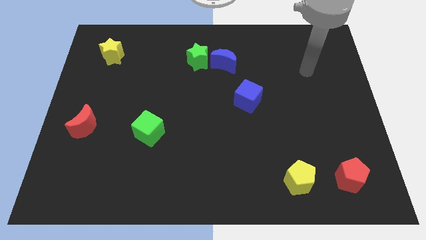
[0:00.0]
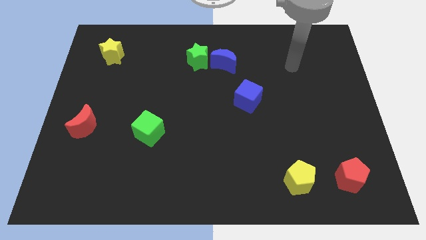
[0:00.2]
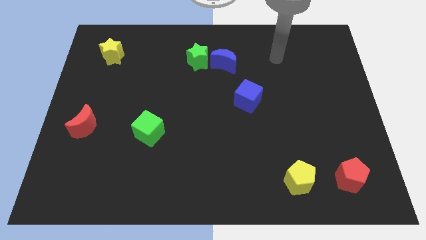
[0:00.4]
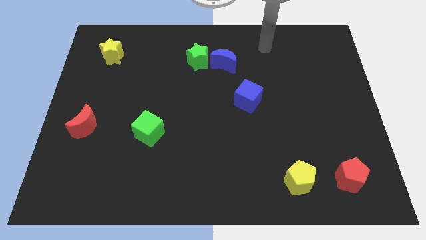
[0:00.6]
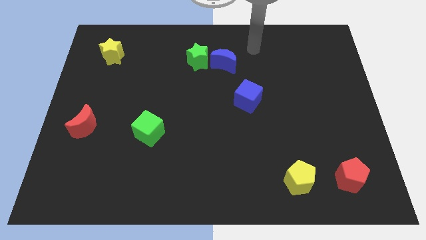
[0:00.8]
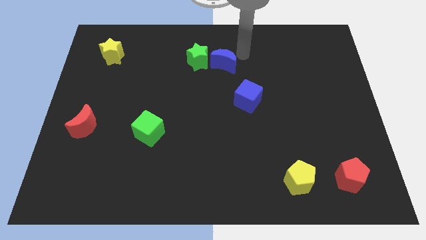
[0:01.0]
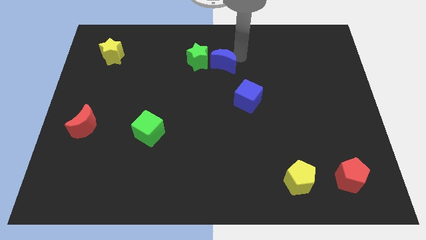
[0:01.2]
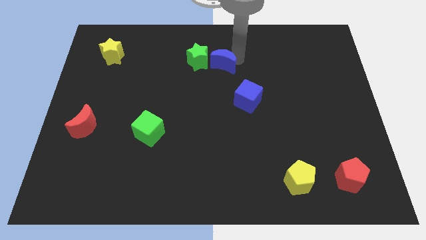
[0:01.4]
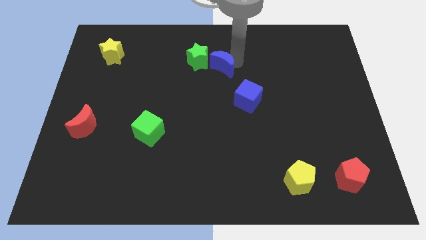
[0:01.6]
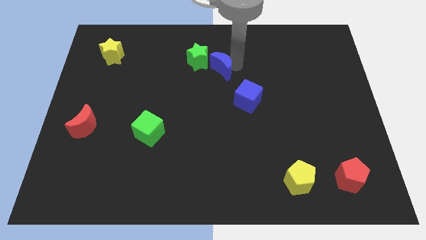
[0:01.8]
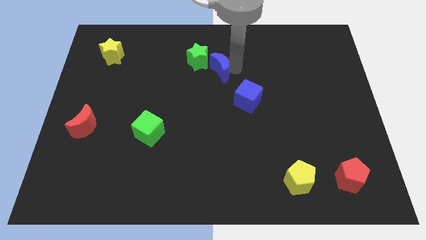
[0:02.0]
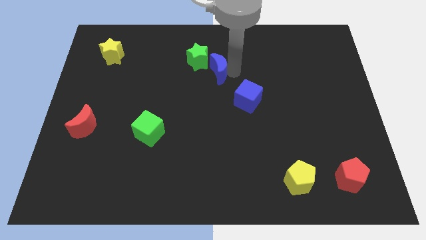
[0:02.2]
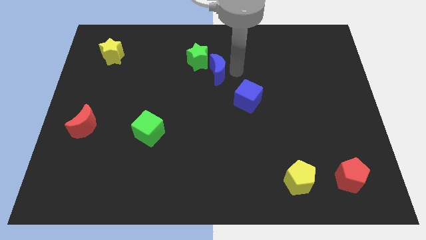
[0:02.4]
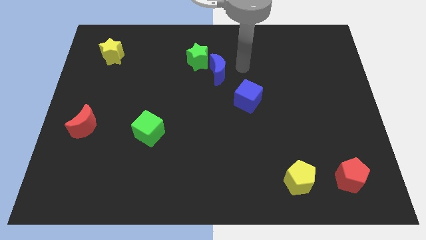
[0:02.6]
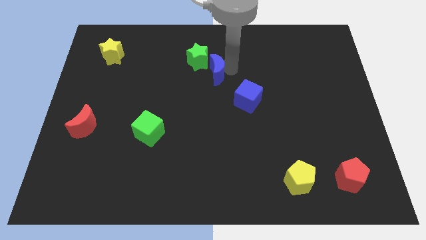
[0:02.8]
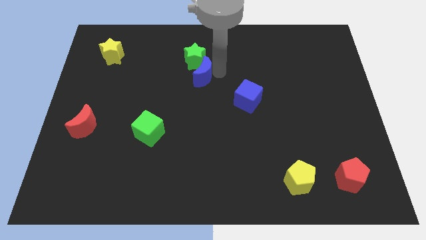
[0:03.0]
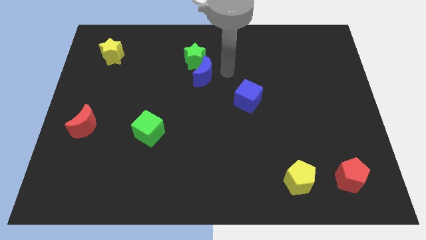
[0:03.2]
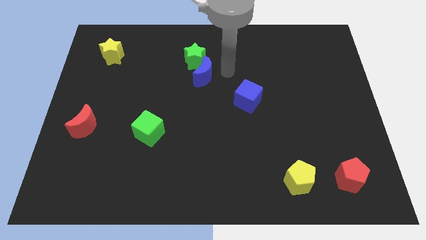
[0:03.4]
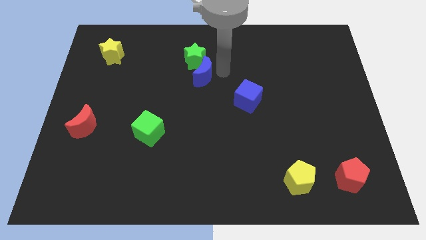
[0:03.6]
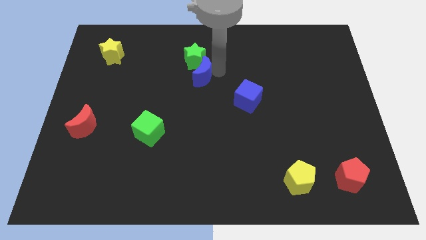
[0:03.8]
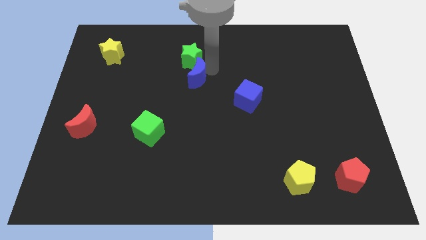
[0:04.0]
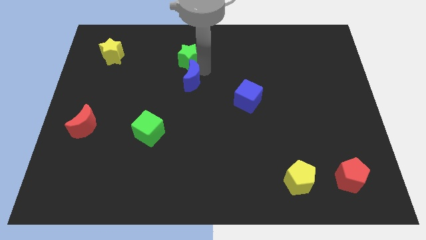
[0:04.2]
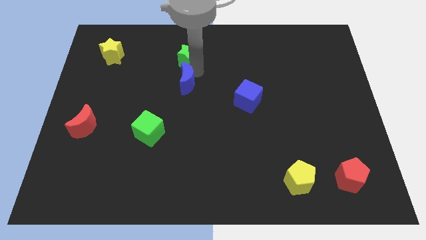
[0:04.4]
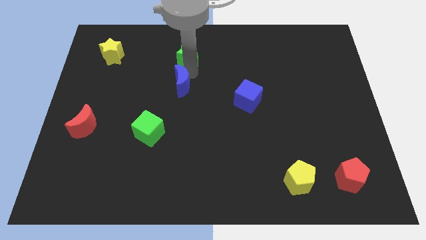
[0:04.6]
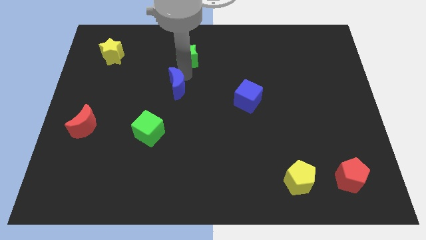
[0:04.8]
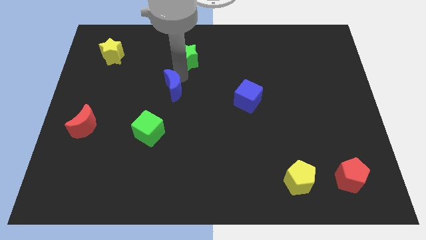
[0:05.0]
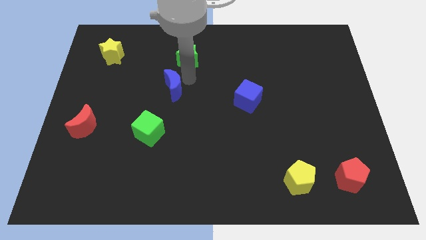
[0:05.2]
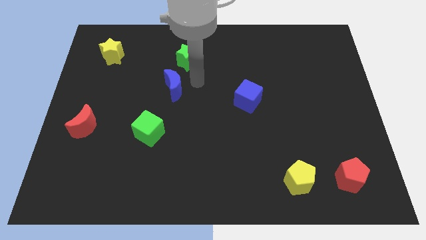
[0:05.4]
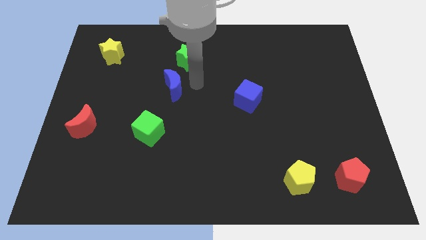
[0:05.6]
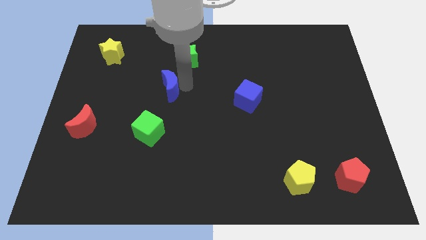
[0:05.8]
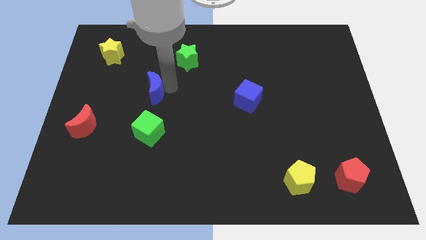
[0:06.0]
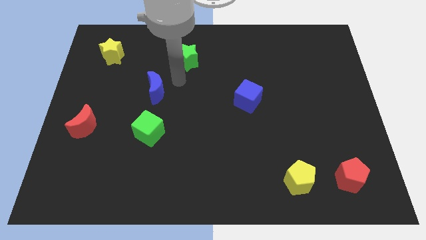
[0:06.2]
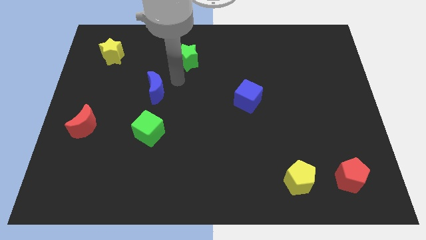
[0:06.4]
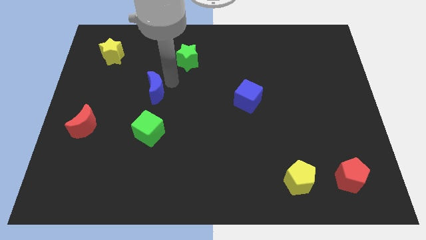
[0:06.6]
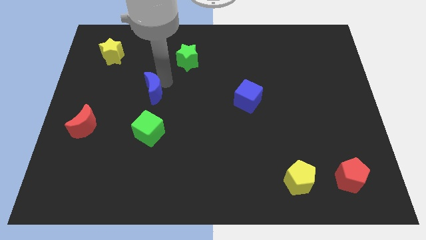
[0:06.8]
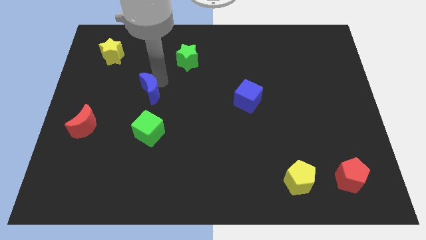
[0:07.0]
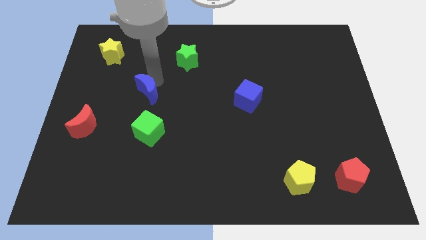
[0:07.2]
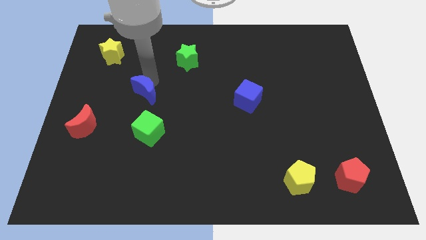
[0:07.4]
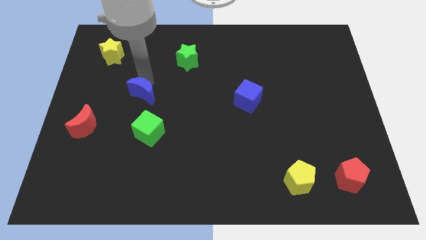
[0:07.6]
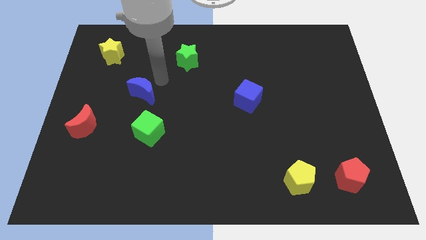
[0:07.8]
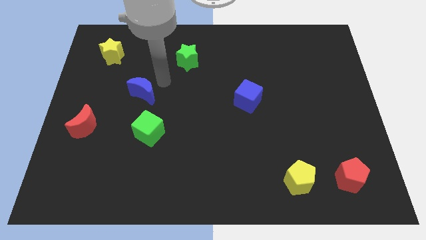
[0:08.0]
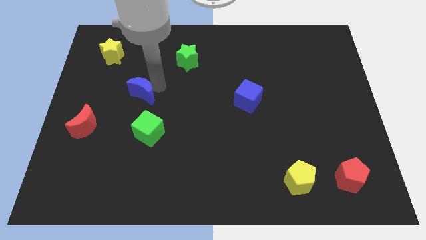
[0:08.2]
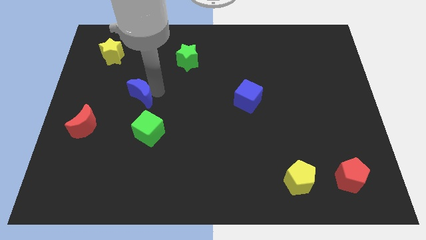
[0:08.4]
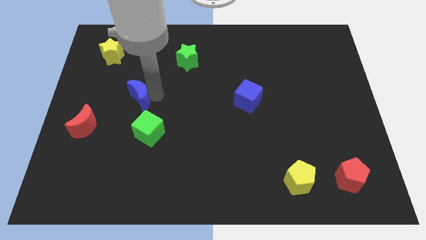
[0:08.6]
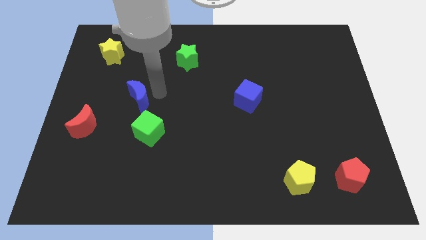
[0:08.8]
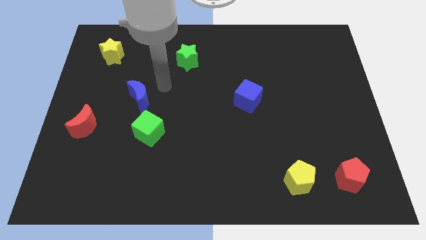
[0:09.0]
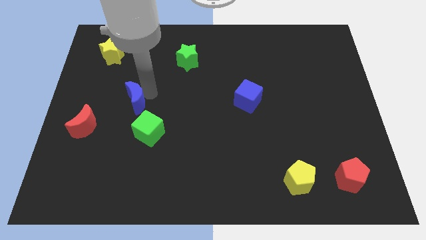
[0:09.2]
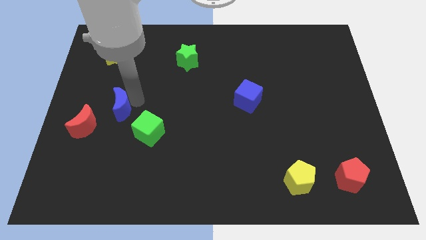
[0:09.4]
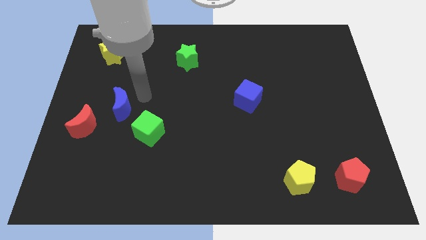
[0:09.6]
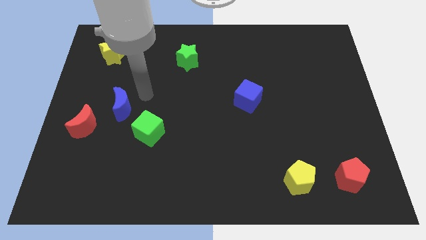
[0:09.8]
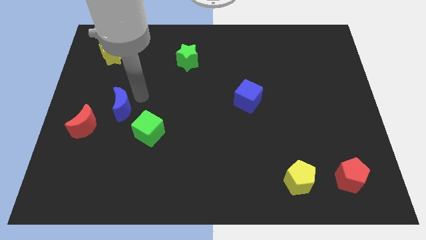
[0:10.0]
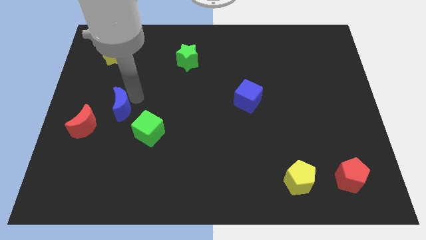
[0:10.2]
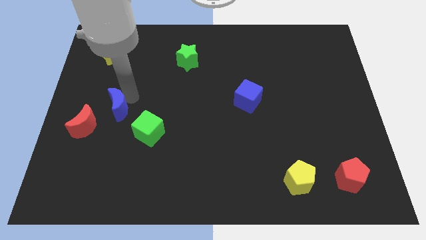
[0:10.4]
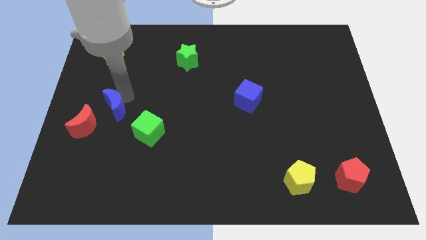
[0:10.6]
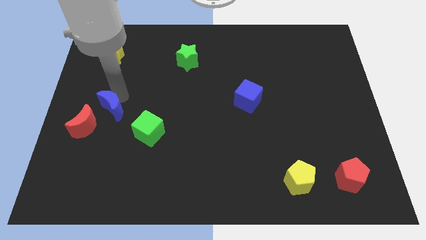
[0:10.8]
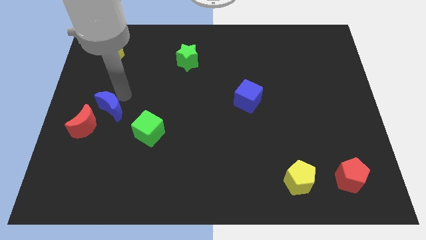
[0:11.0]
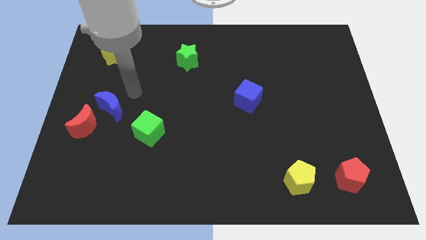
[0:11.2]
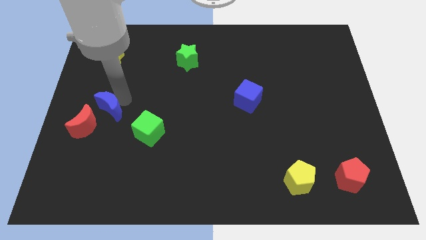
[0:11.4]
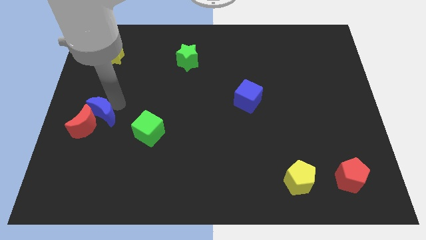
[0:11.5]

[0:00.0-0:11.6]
put the blue moon next to the red moon

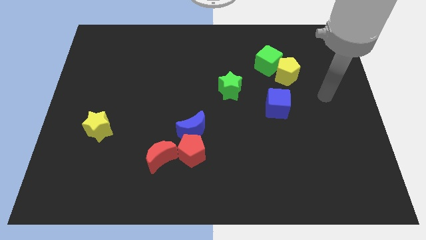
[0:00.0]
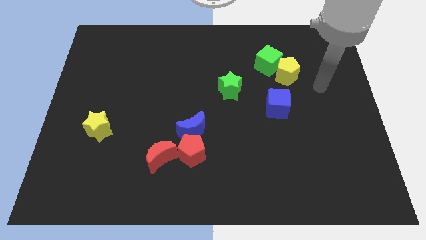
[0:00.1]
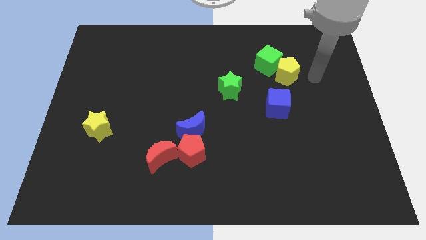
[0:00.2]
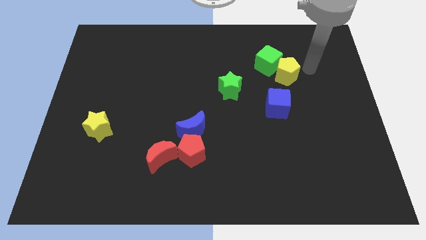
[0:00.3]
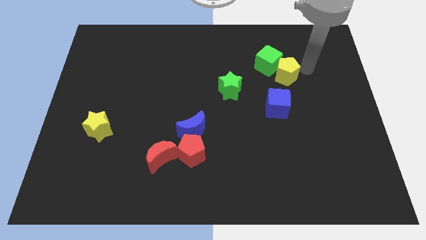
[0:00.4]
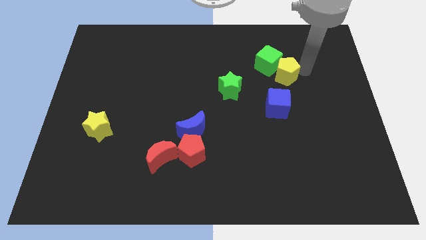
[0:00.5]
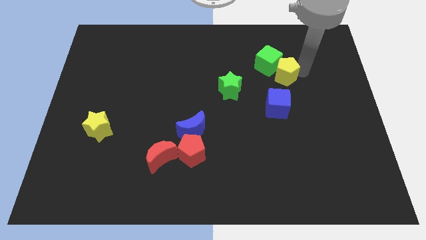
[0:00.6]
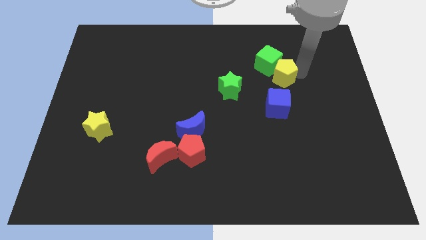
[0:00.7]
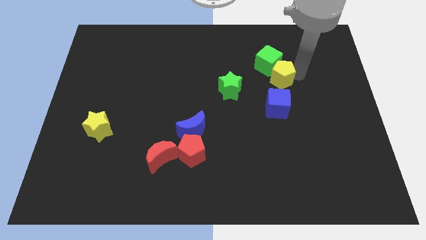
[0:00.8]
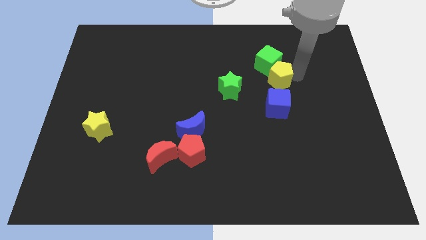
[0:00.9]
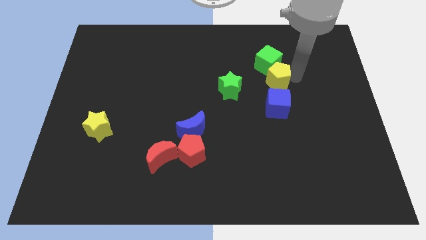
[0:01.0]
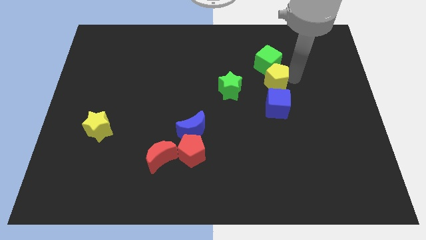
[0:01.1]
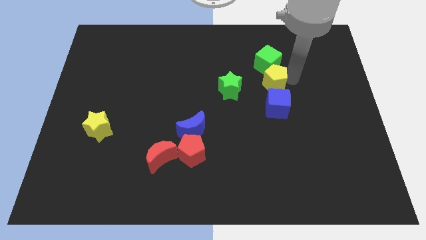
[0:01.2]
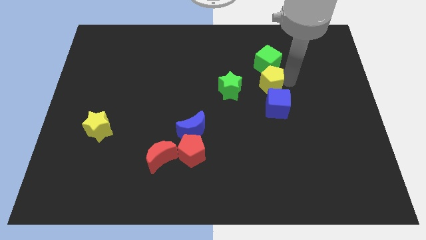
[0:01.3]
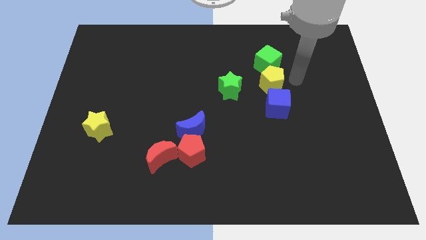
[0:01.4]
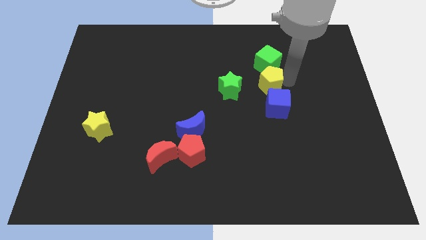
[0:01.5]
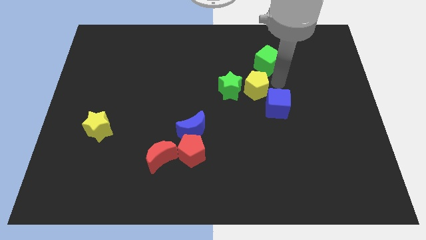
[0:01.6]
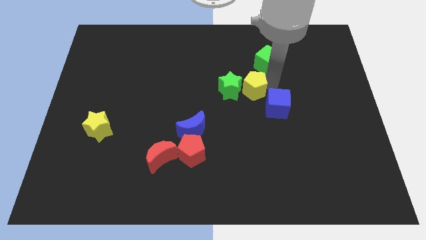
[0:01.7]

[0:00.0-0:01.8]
push the yellow pentagon close to the green star
